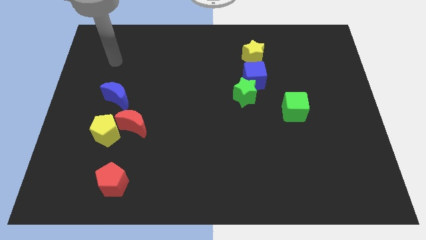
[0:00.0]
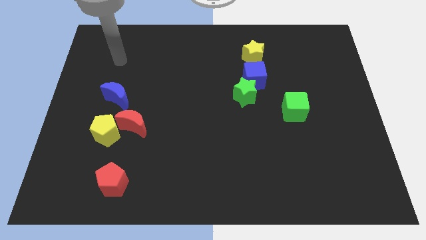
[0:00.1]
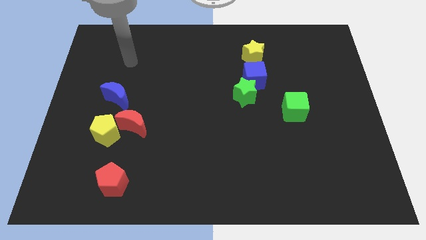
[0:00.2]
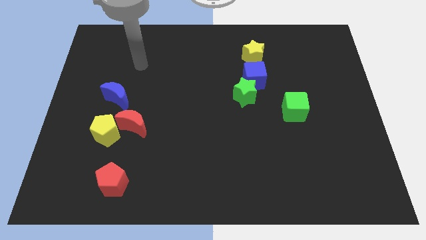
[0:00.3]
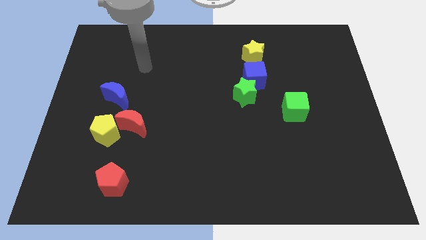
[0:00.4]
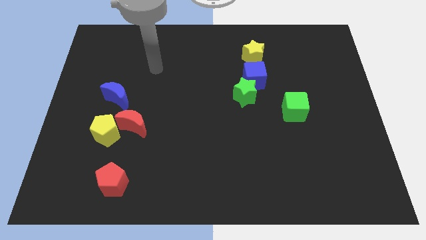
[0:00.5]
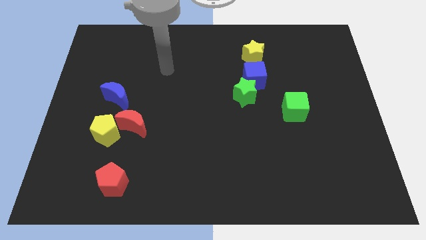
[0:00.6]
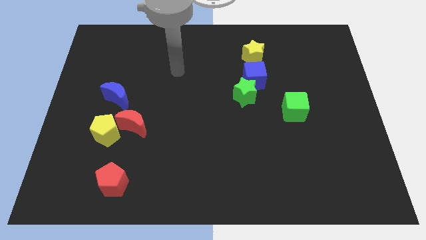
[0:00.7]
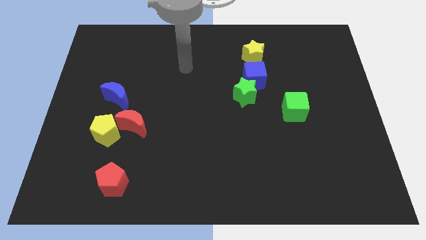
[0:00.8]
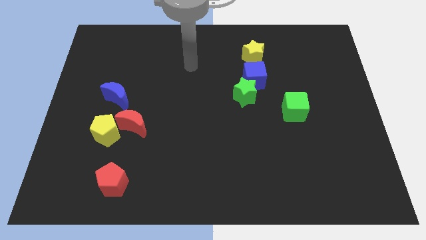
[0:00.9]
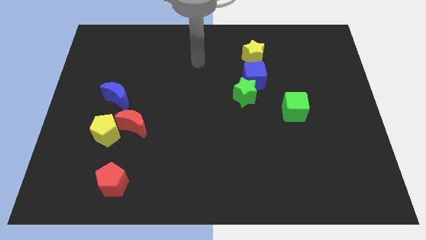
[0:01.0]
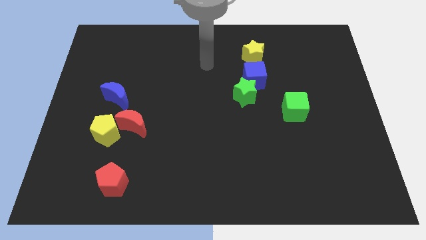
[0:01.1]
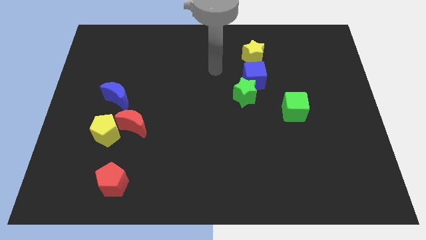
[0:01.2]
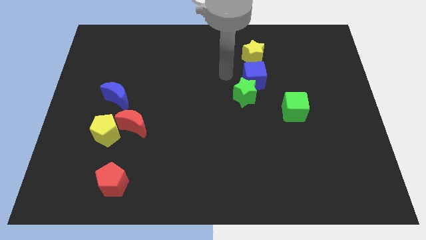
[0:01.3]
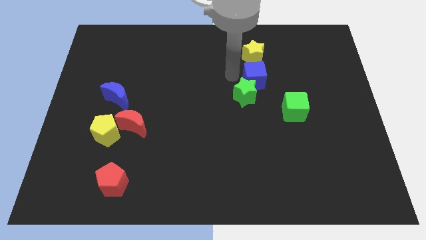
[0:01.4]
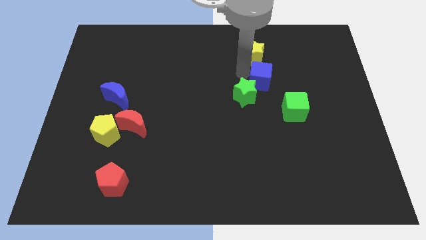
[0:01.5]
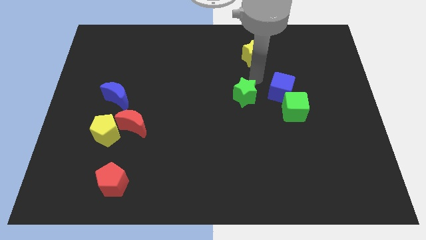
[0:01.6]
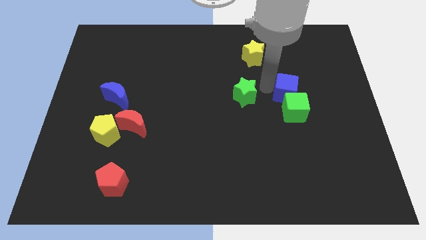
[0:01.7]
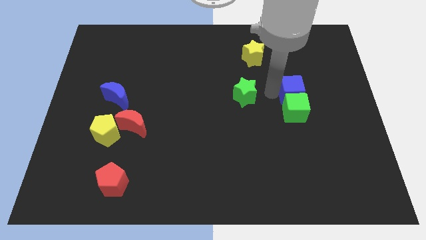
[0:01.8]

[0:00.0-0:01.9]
move the green star away from the blue cube

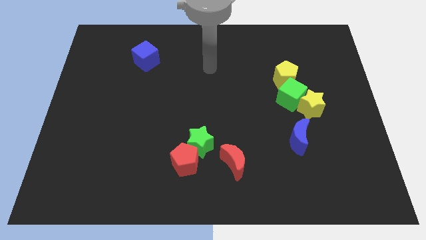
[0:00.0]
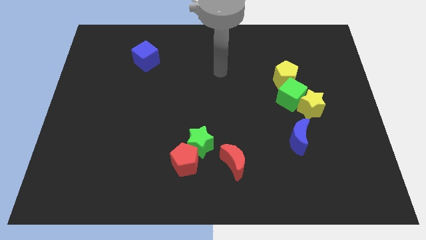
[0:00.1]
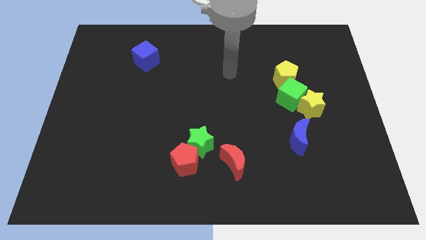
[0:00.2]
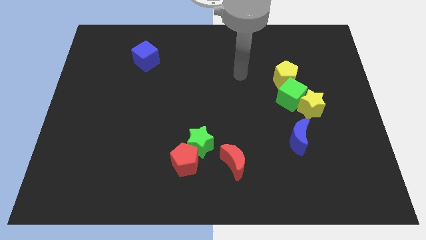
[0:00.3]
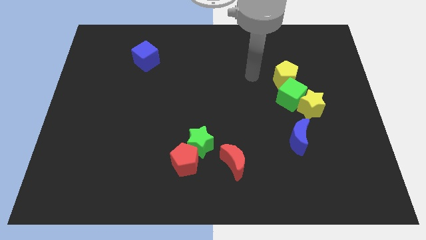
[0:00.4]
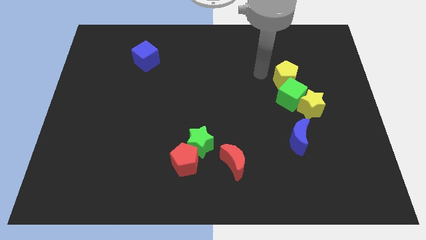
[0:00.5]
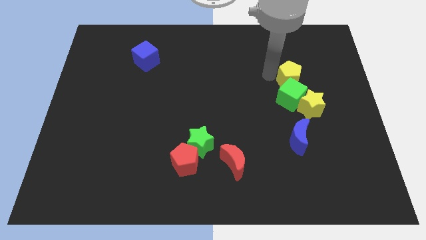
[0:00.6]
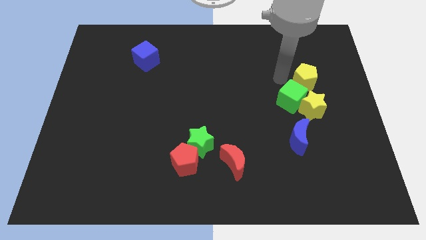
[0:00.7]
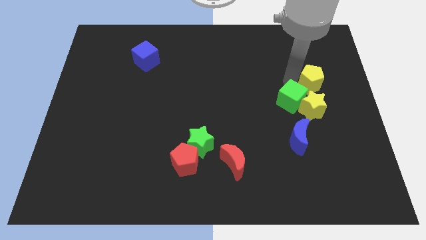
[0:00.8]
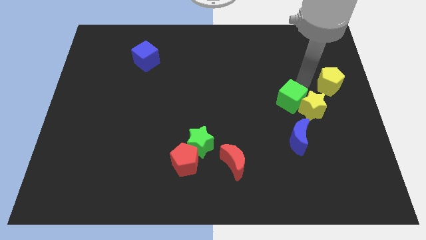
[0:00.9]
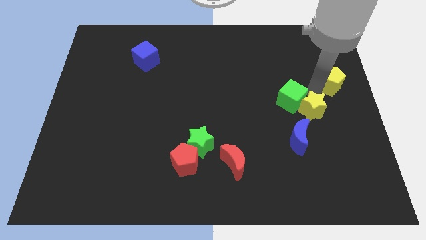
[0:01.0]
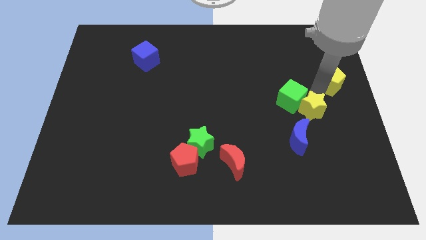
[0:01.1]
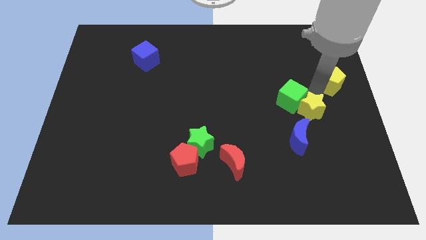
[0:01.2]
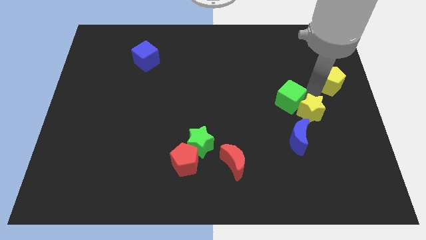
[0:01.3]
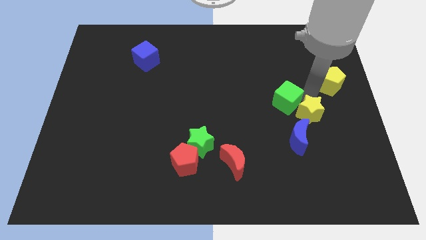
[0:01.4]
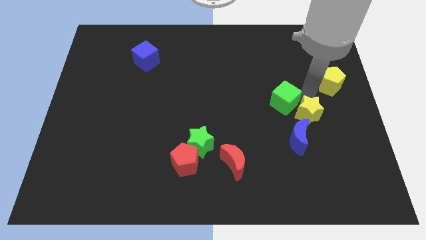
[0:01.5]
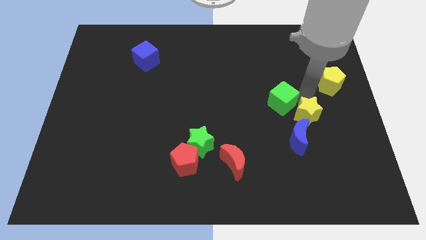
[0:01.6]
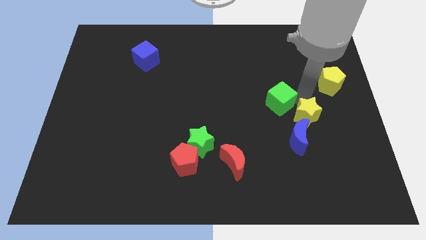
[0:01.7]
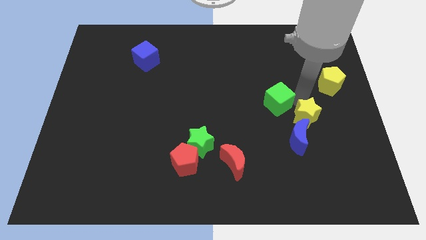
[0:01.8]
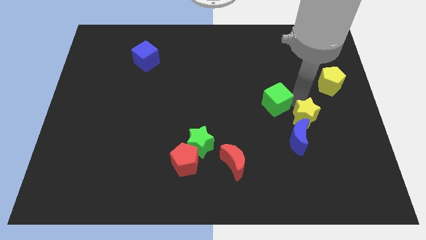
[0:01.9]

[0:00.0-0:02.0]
move the green cube away from the yellow star and yellow pentagon

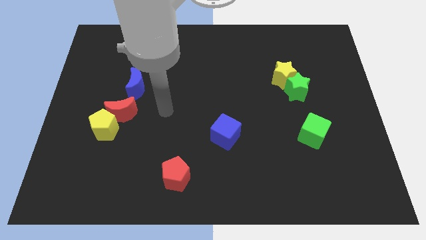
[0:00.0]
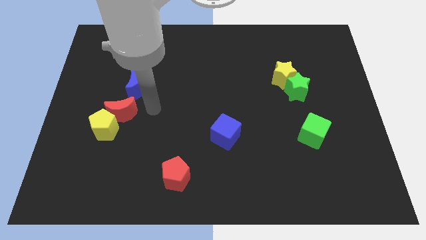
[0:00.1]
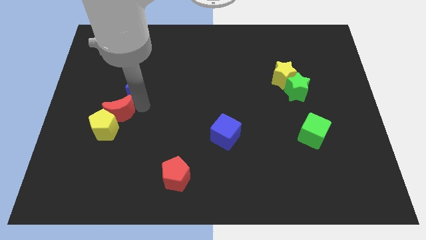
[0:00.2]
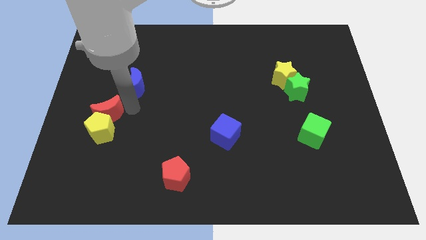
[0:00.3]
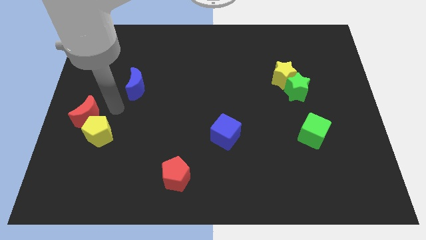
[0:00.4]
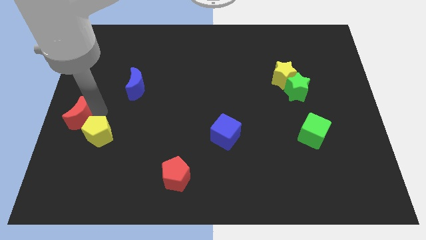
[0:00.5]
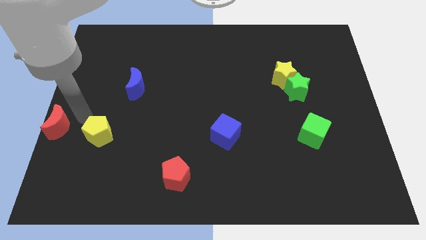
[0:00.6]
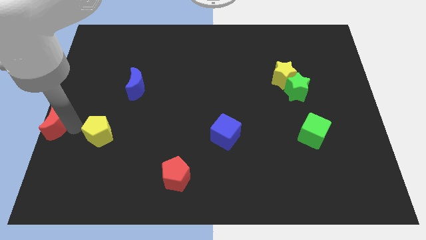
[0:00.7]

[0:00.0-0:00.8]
separate the yellow pentagon from the red moon

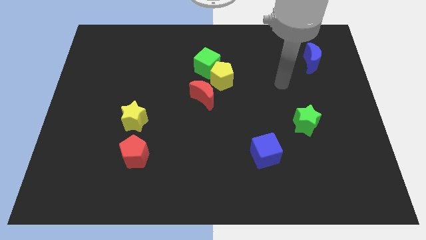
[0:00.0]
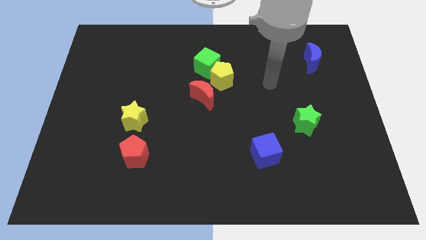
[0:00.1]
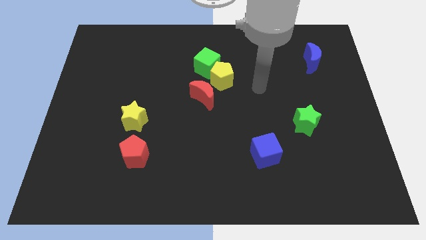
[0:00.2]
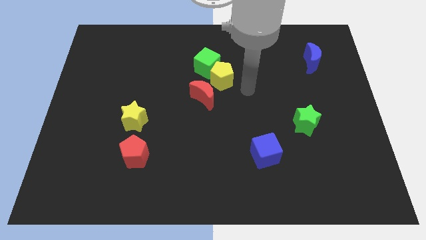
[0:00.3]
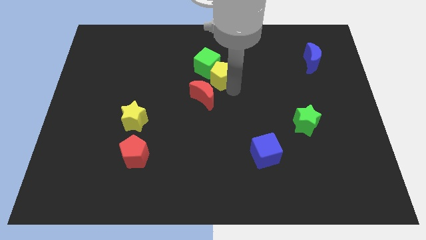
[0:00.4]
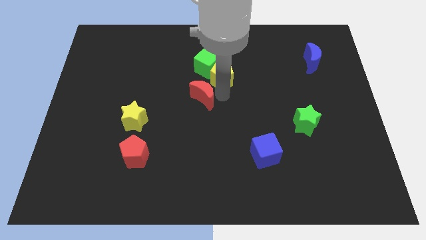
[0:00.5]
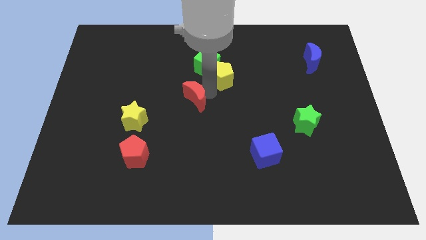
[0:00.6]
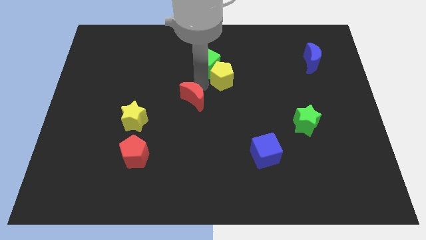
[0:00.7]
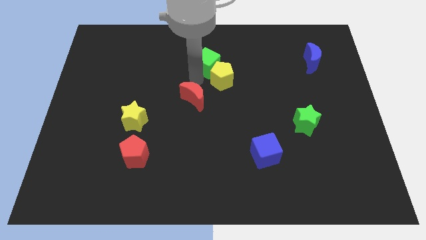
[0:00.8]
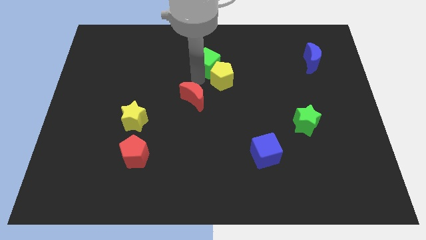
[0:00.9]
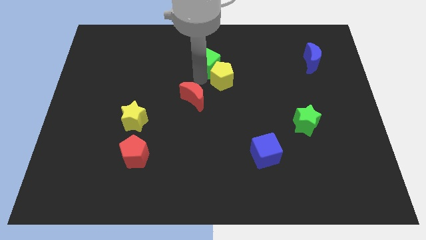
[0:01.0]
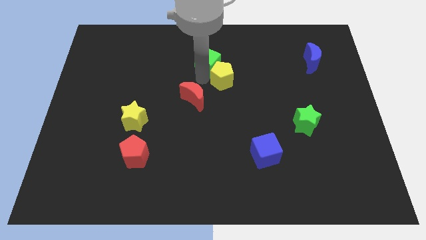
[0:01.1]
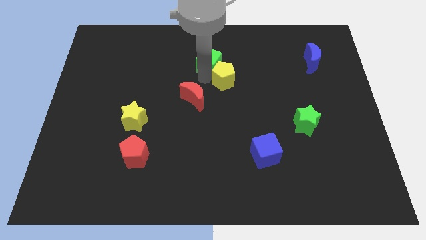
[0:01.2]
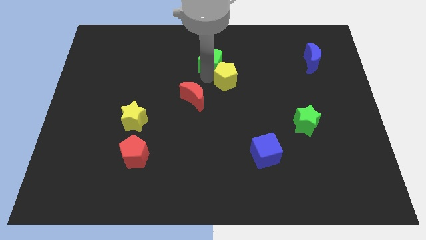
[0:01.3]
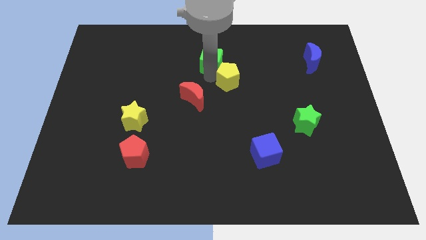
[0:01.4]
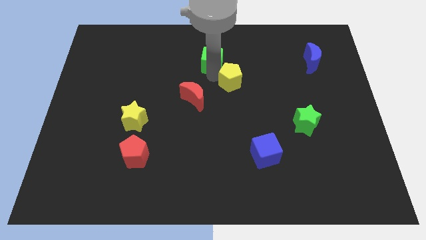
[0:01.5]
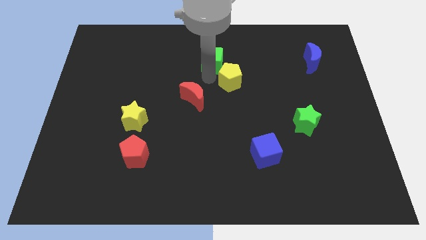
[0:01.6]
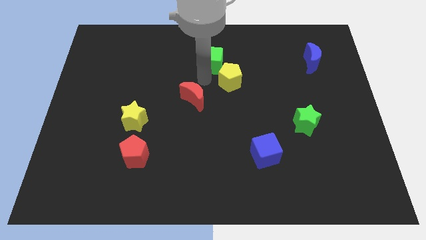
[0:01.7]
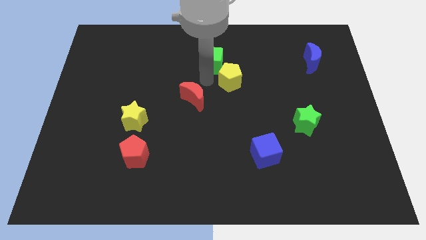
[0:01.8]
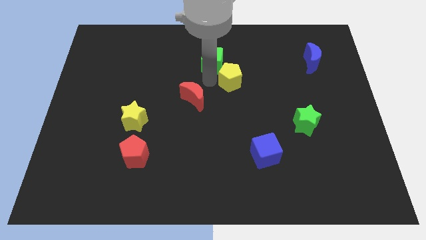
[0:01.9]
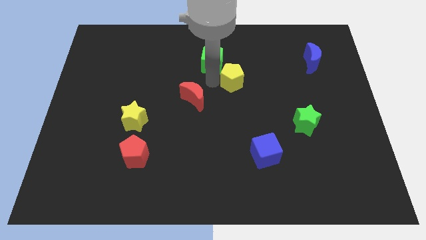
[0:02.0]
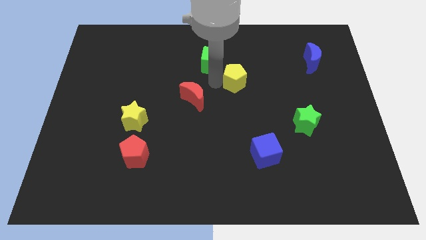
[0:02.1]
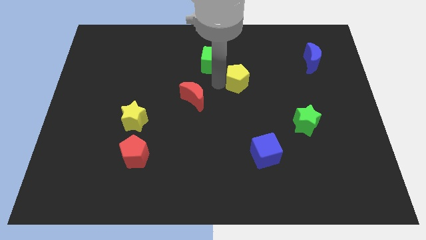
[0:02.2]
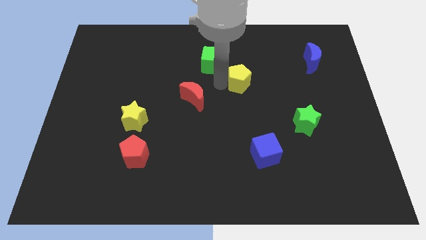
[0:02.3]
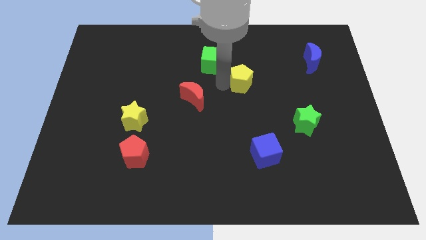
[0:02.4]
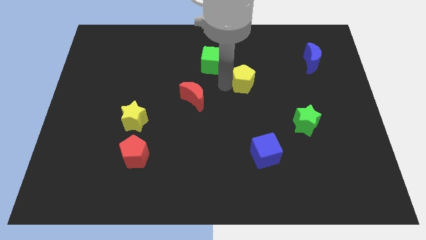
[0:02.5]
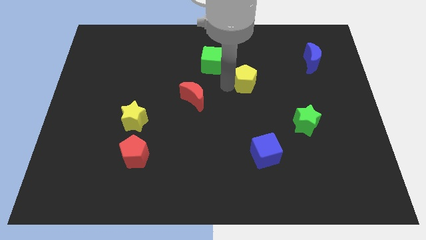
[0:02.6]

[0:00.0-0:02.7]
move the yellow pentagon away from the green cube and red moon

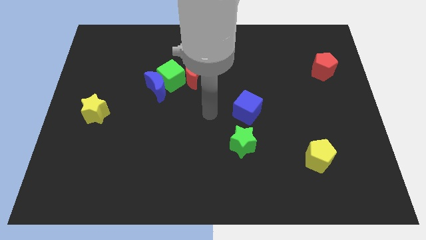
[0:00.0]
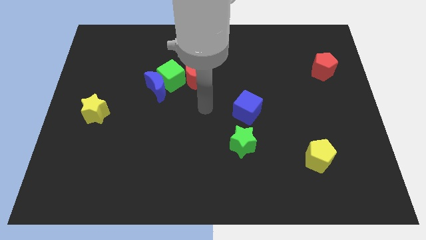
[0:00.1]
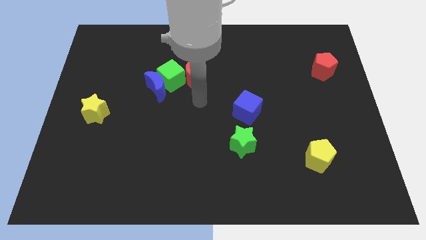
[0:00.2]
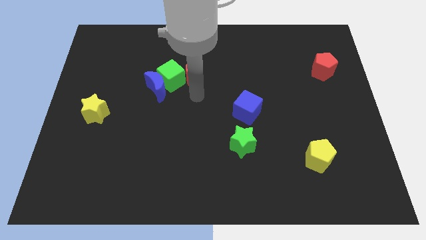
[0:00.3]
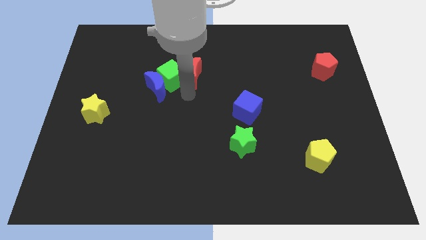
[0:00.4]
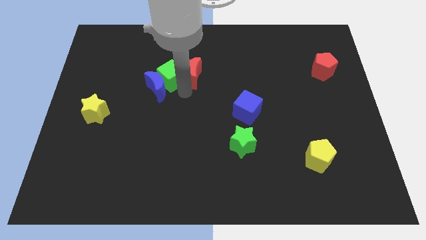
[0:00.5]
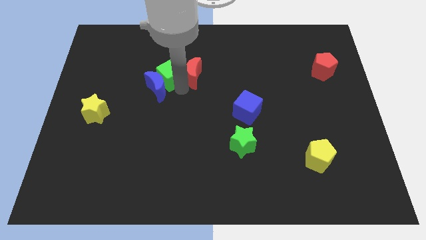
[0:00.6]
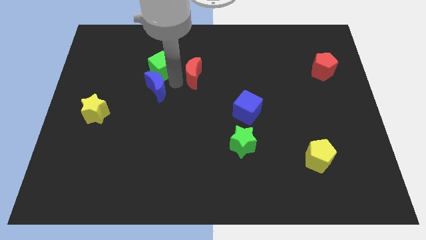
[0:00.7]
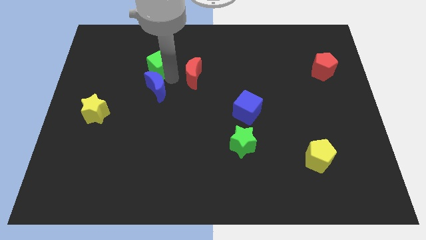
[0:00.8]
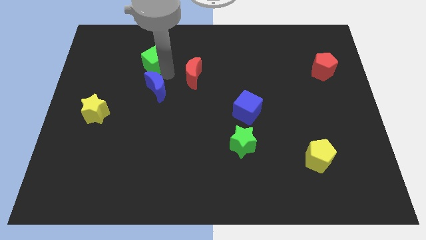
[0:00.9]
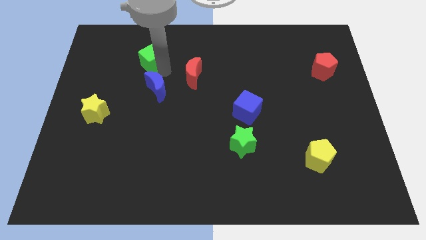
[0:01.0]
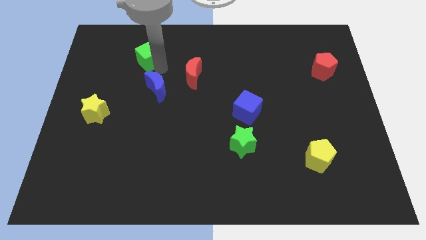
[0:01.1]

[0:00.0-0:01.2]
move the green cube away from the blue moon and red moon

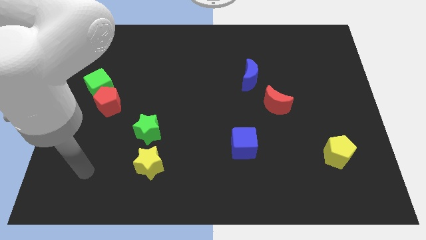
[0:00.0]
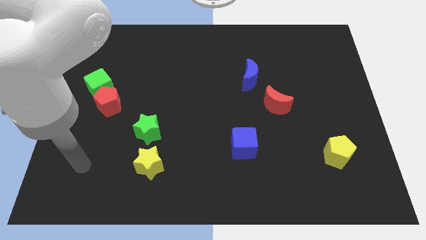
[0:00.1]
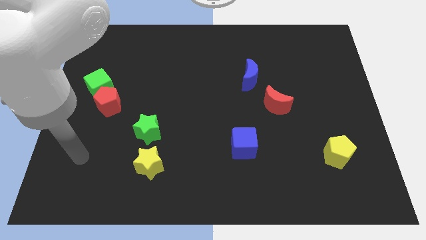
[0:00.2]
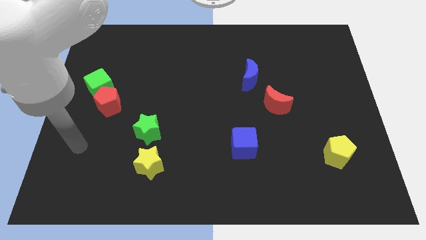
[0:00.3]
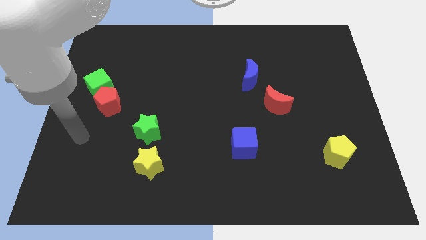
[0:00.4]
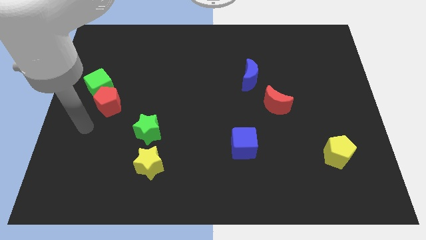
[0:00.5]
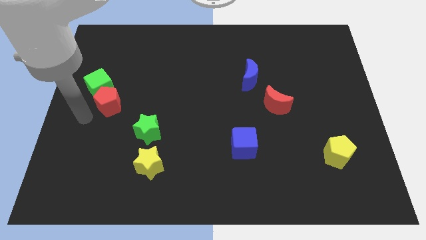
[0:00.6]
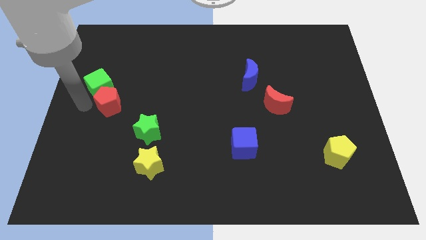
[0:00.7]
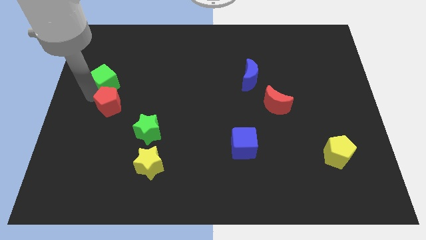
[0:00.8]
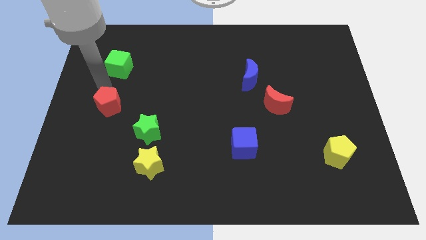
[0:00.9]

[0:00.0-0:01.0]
separate the red pentagon from the green cube
